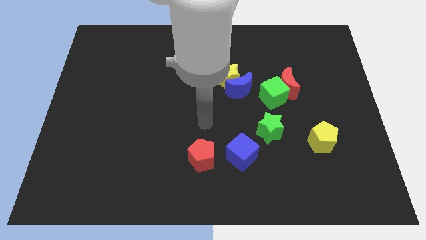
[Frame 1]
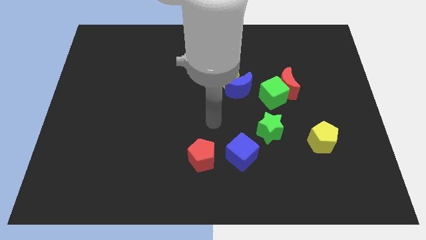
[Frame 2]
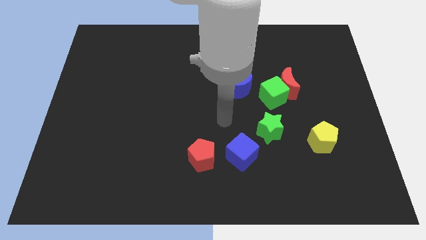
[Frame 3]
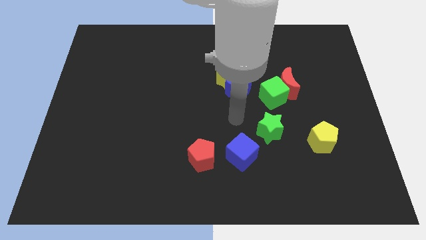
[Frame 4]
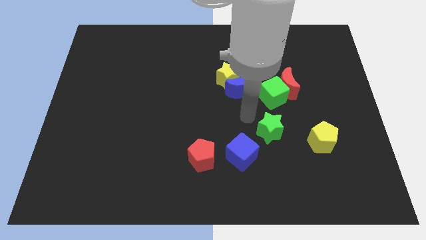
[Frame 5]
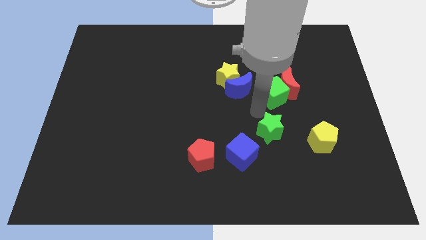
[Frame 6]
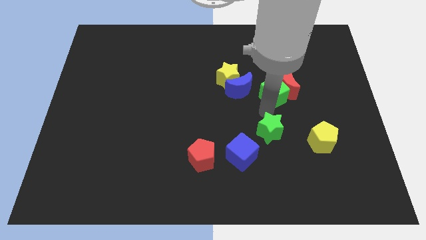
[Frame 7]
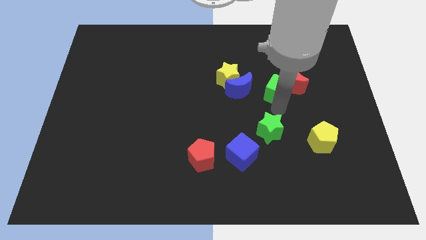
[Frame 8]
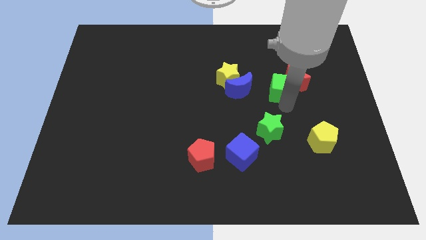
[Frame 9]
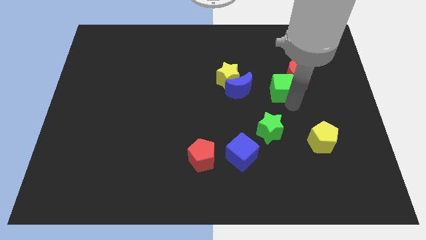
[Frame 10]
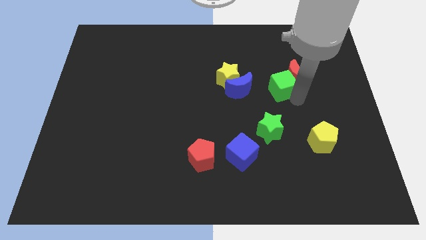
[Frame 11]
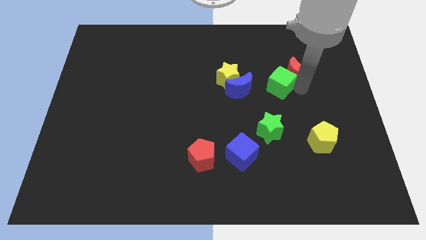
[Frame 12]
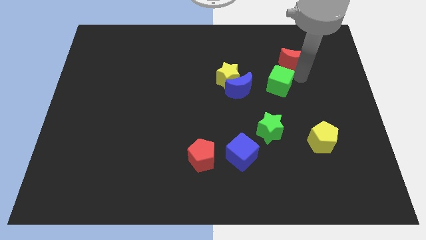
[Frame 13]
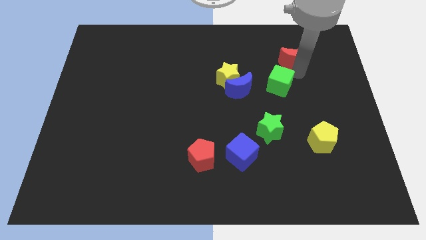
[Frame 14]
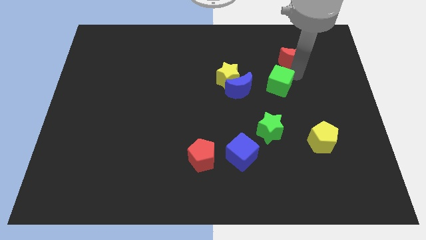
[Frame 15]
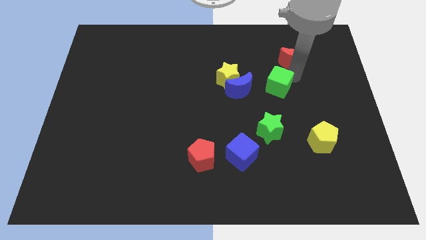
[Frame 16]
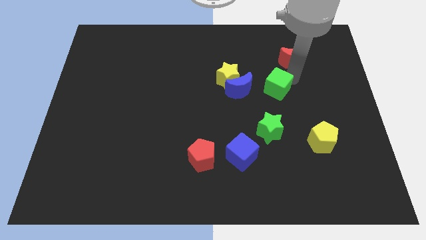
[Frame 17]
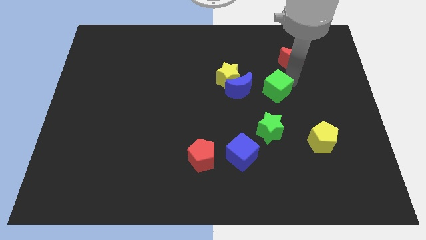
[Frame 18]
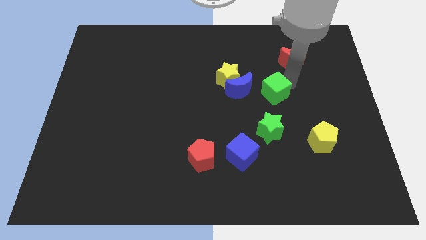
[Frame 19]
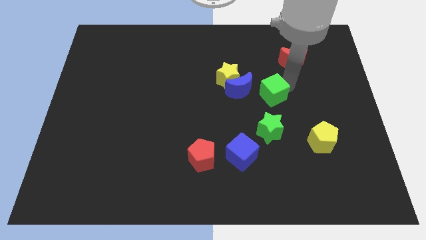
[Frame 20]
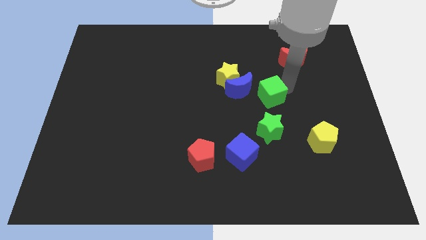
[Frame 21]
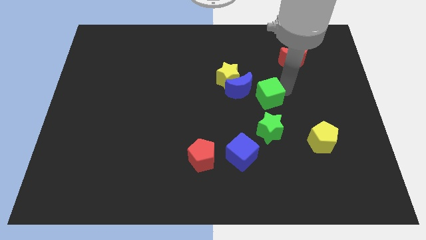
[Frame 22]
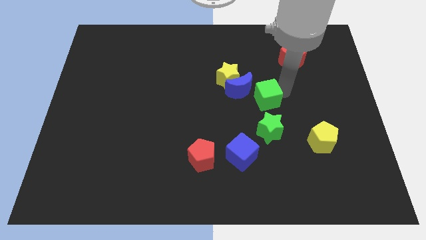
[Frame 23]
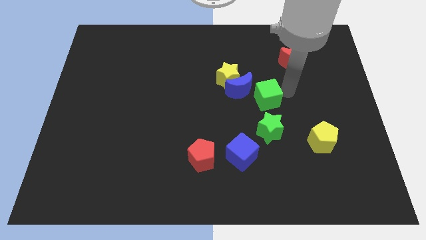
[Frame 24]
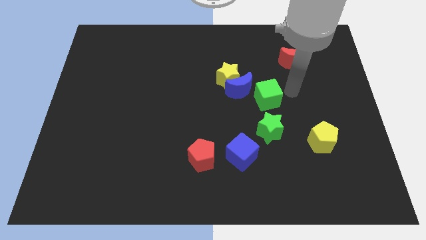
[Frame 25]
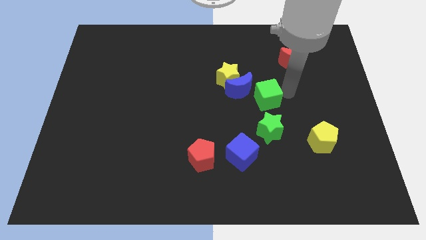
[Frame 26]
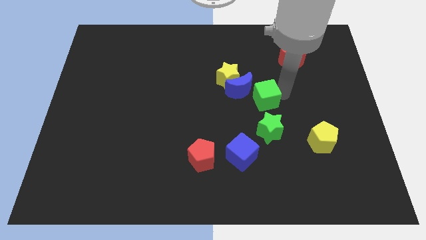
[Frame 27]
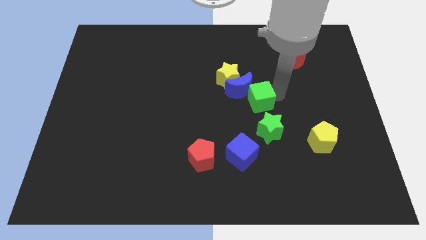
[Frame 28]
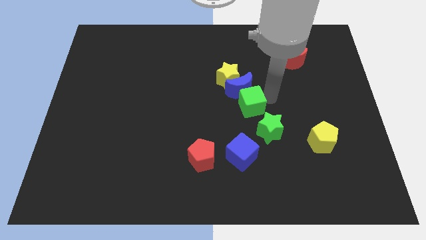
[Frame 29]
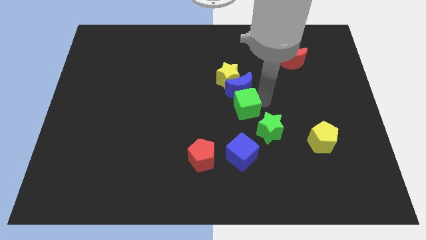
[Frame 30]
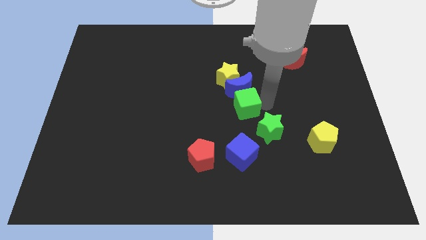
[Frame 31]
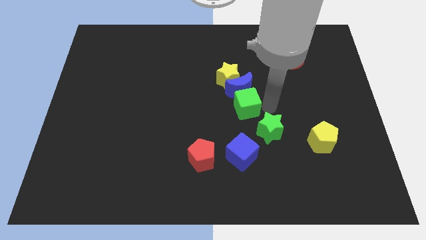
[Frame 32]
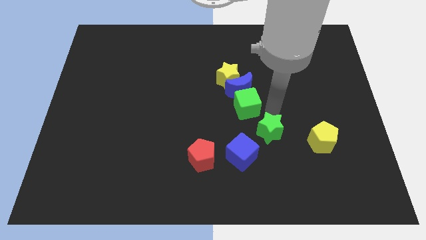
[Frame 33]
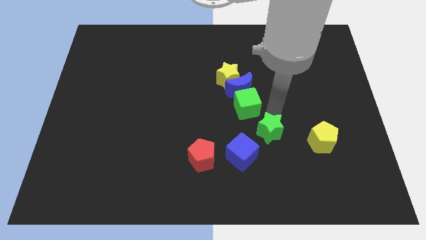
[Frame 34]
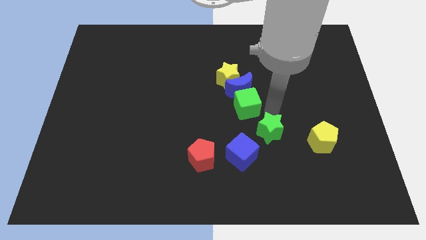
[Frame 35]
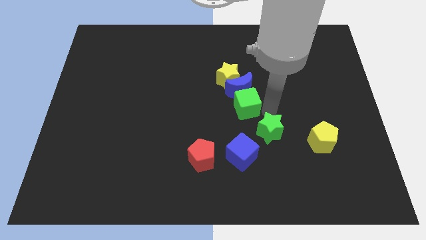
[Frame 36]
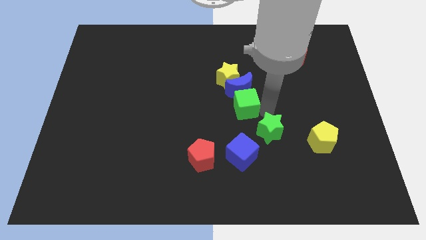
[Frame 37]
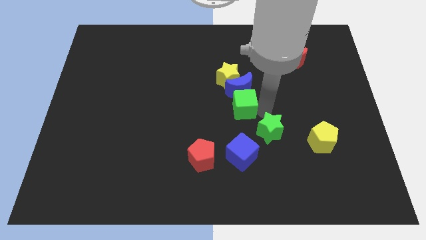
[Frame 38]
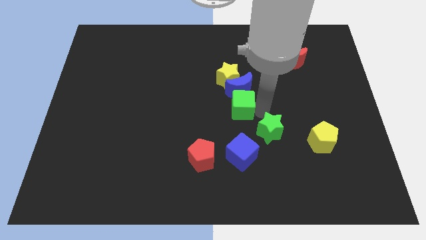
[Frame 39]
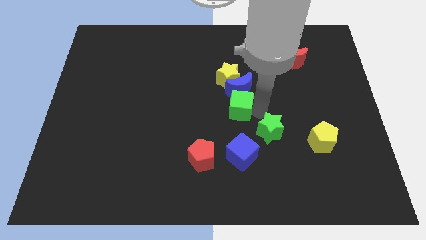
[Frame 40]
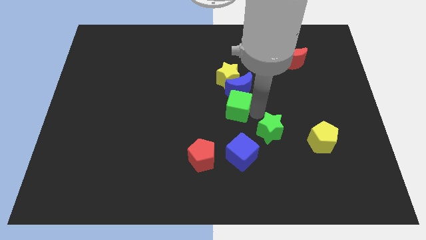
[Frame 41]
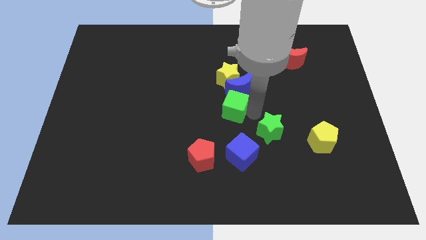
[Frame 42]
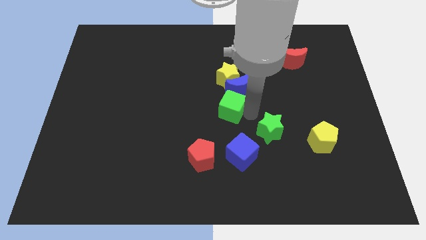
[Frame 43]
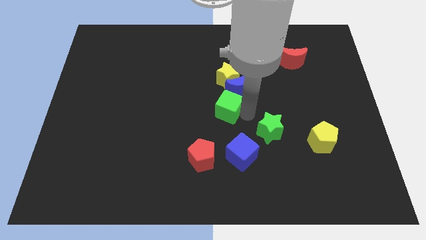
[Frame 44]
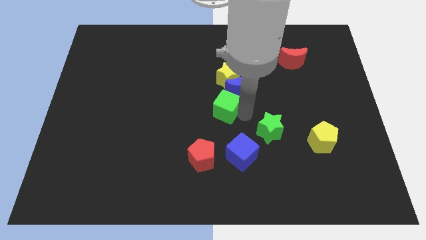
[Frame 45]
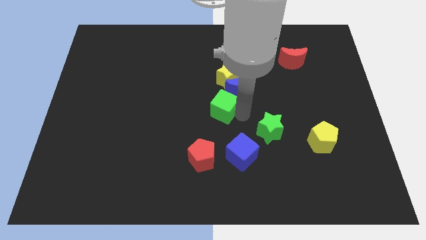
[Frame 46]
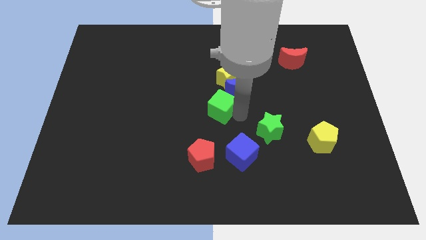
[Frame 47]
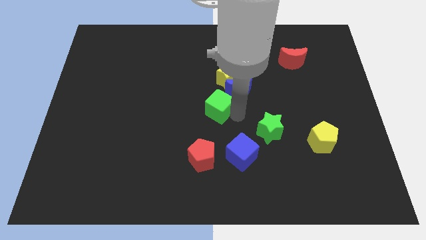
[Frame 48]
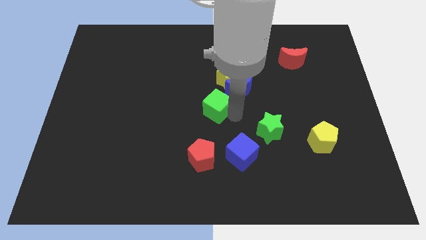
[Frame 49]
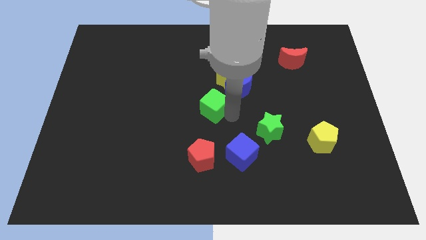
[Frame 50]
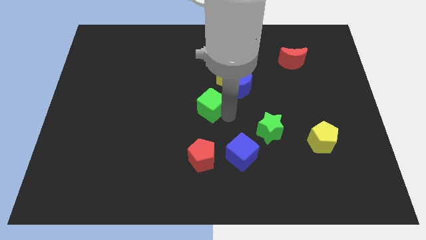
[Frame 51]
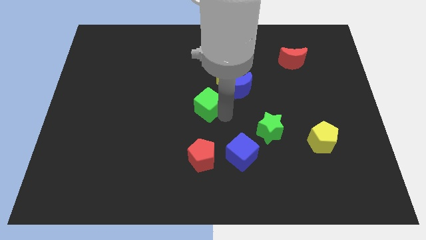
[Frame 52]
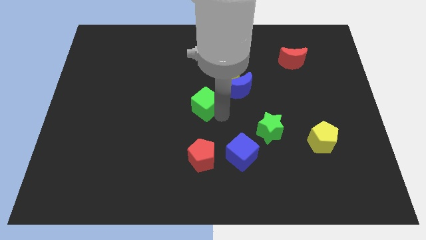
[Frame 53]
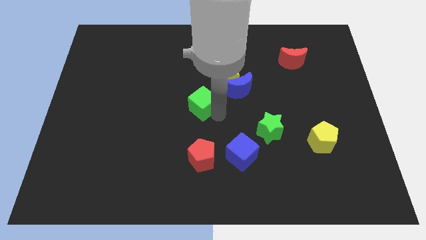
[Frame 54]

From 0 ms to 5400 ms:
move the green cube left of the blue moon

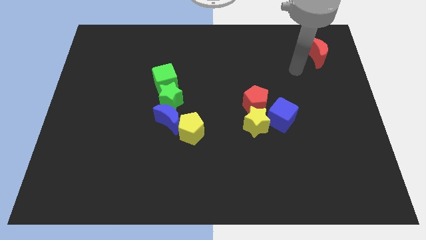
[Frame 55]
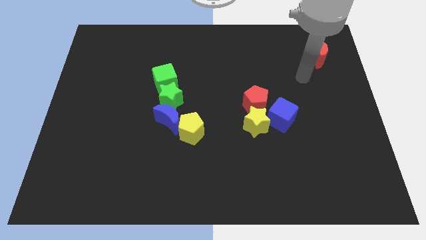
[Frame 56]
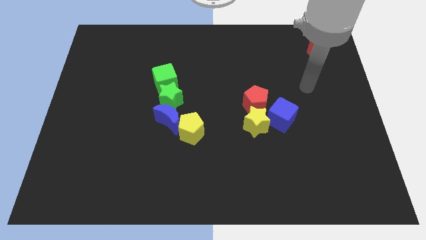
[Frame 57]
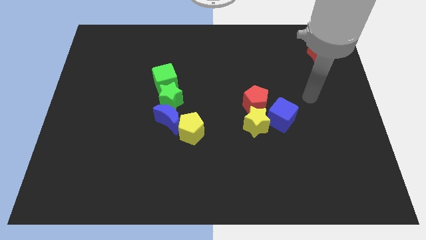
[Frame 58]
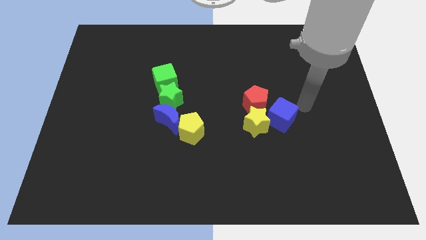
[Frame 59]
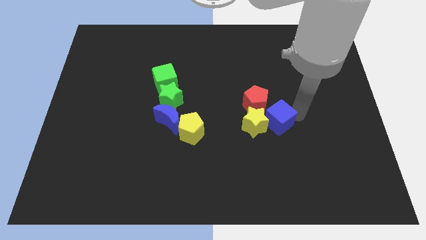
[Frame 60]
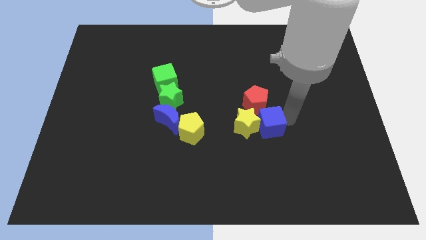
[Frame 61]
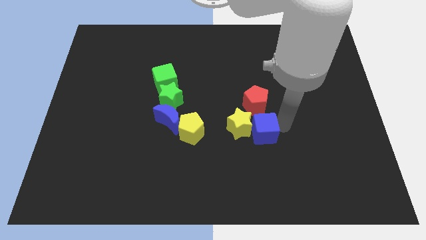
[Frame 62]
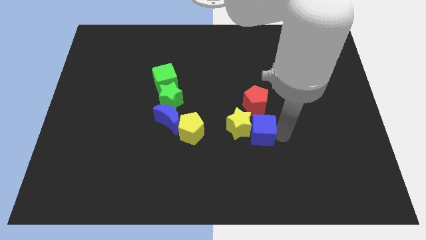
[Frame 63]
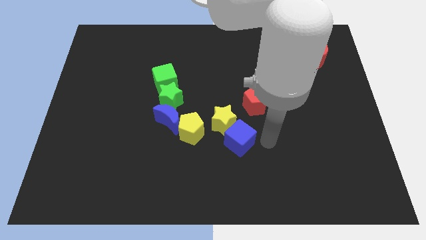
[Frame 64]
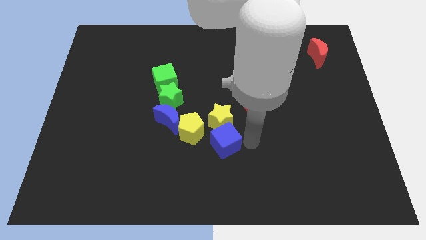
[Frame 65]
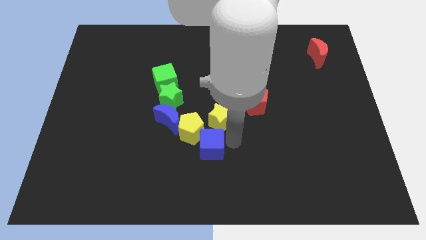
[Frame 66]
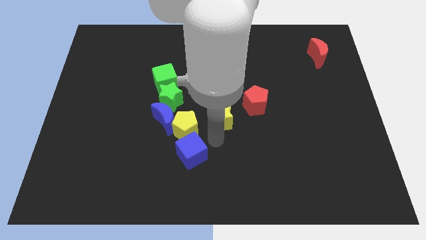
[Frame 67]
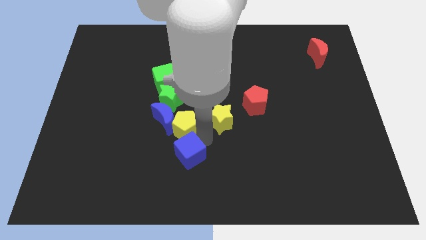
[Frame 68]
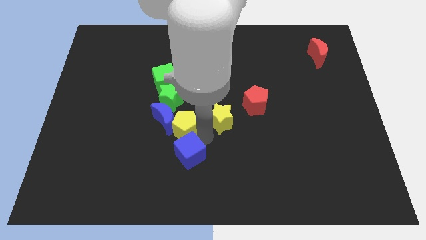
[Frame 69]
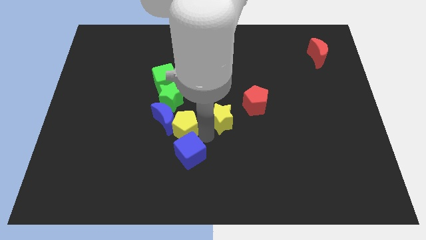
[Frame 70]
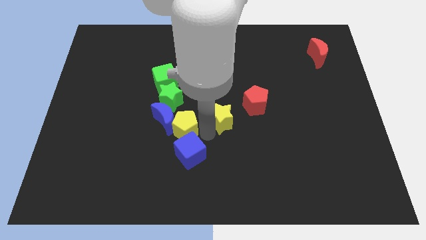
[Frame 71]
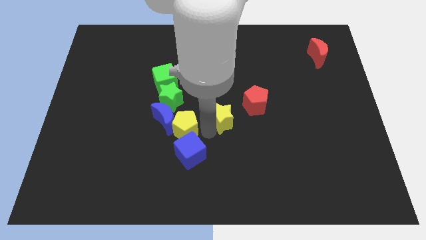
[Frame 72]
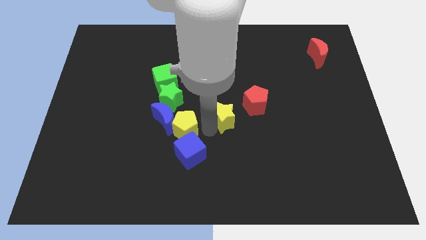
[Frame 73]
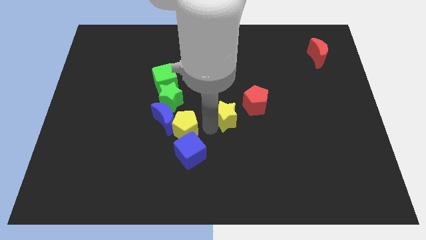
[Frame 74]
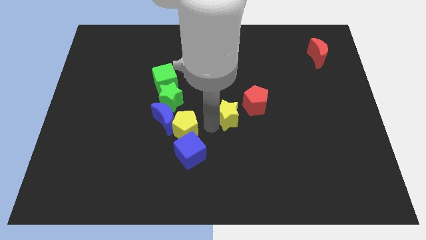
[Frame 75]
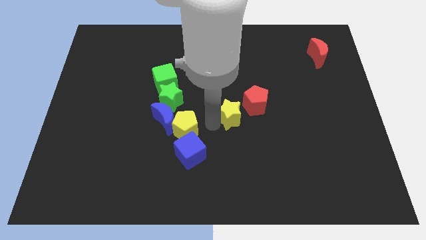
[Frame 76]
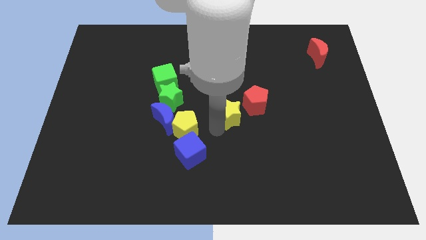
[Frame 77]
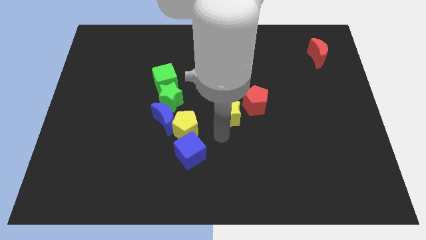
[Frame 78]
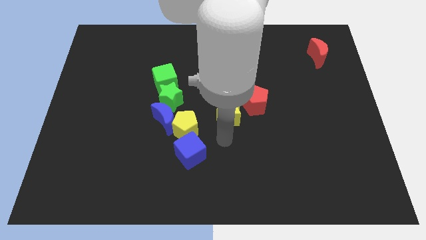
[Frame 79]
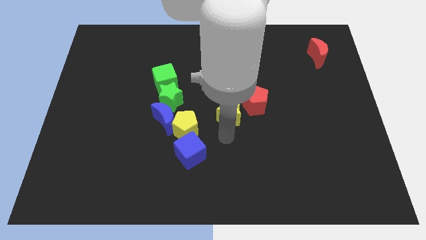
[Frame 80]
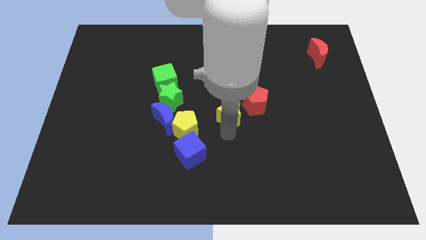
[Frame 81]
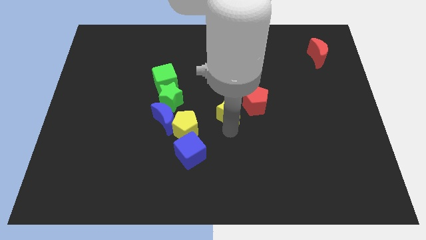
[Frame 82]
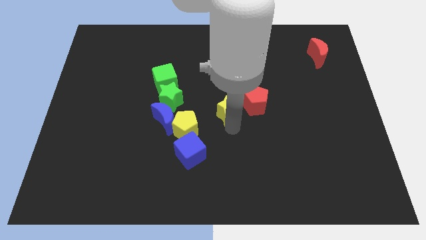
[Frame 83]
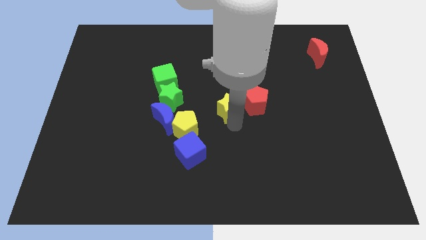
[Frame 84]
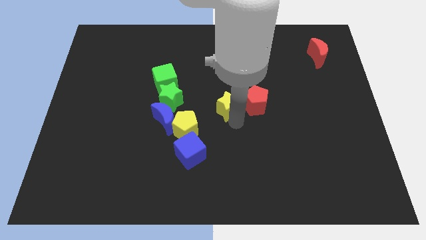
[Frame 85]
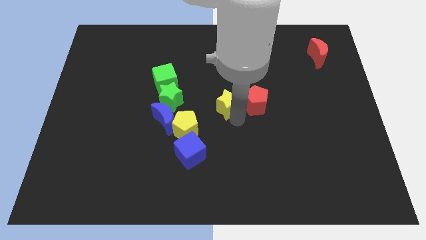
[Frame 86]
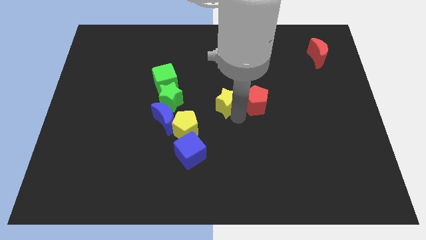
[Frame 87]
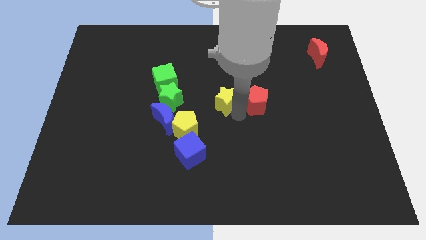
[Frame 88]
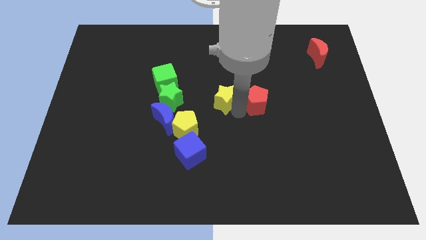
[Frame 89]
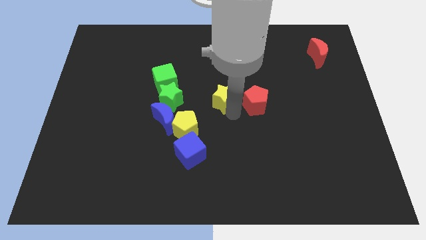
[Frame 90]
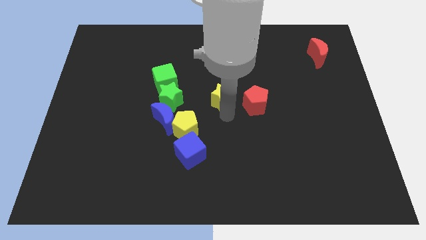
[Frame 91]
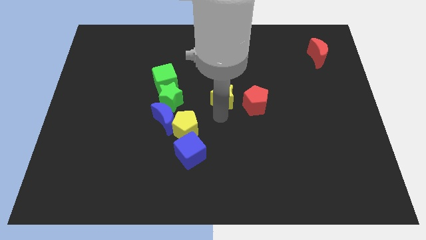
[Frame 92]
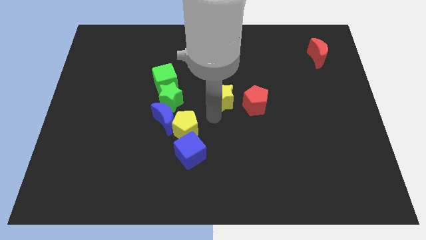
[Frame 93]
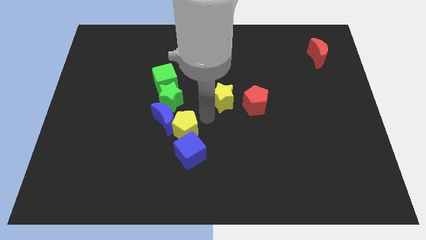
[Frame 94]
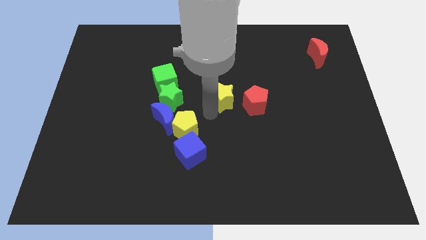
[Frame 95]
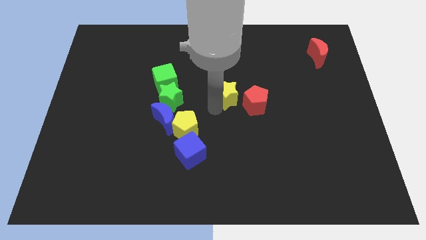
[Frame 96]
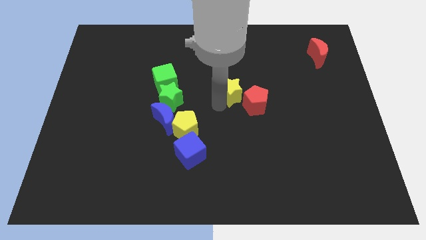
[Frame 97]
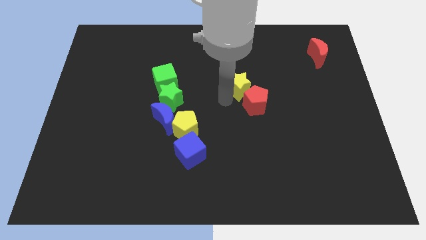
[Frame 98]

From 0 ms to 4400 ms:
slide the yellow star to the top side of the red pentagon
